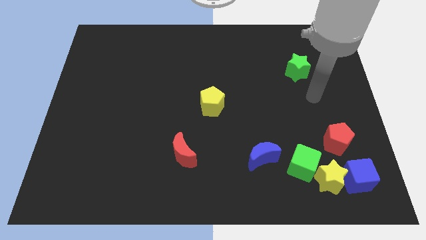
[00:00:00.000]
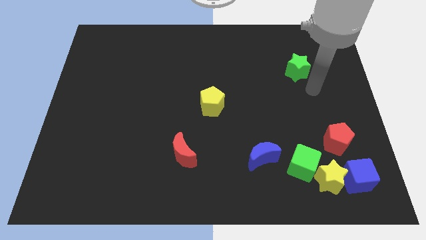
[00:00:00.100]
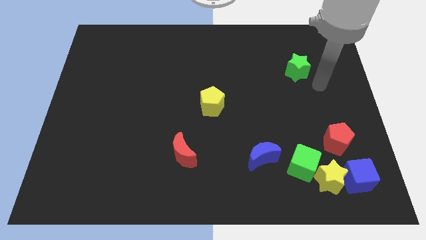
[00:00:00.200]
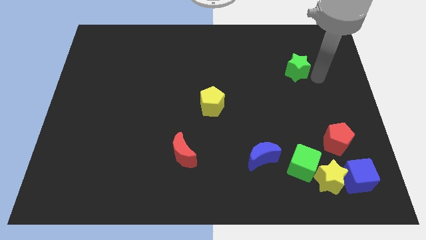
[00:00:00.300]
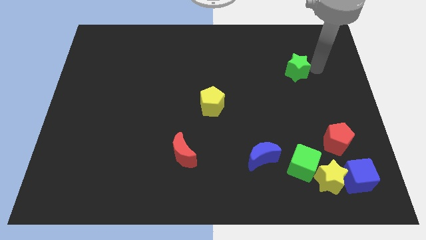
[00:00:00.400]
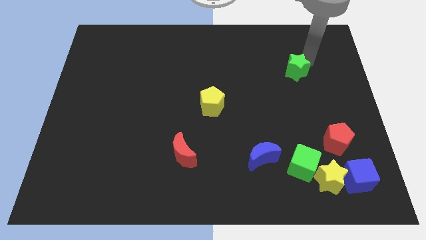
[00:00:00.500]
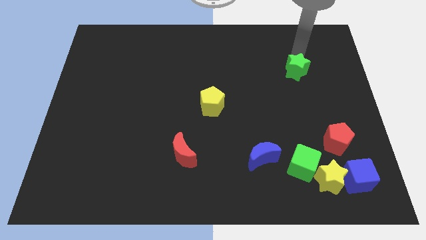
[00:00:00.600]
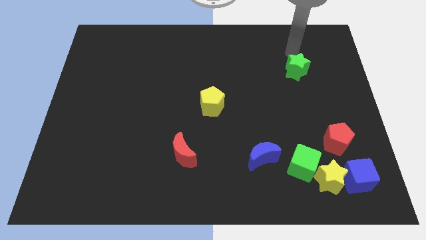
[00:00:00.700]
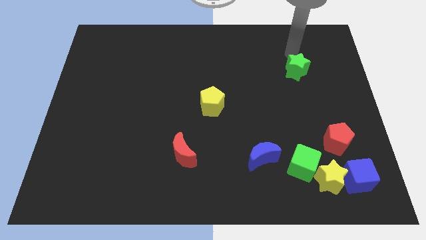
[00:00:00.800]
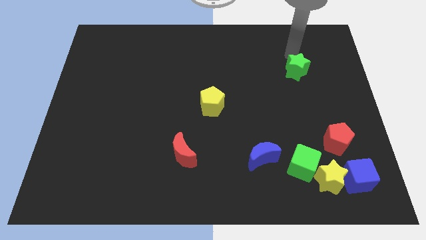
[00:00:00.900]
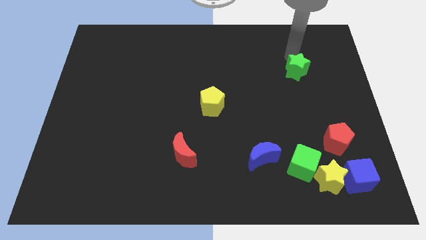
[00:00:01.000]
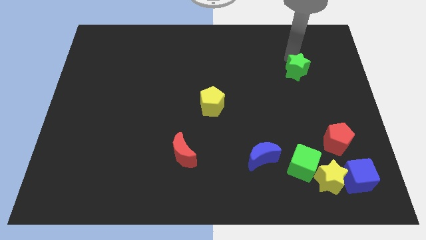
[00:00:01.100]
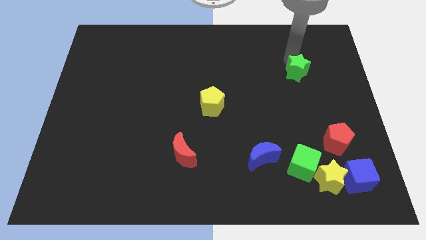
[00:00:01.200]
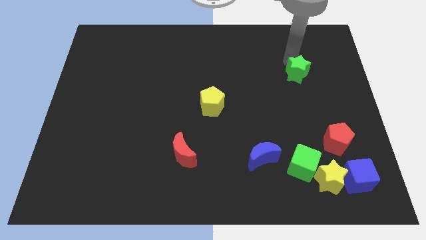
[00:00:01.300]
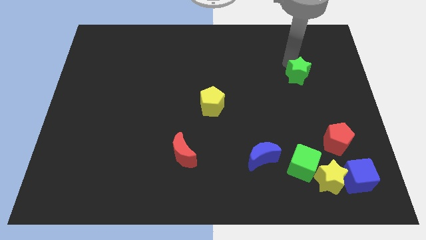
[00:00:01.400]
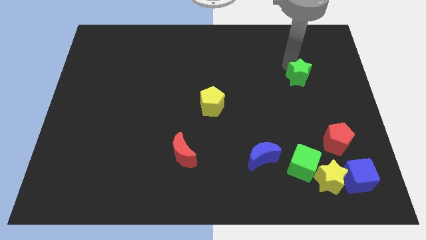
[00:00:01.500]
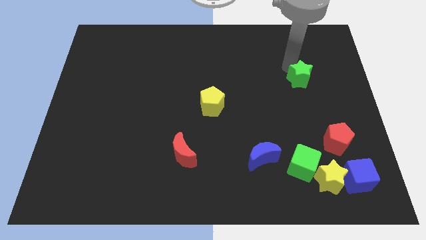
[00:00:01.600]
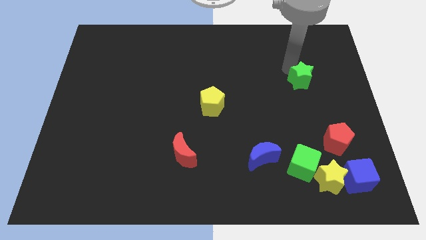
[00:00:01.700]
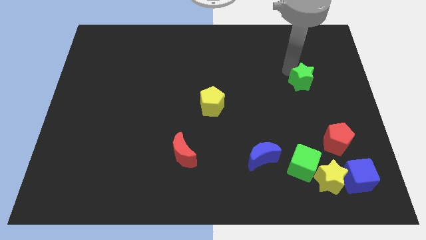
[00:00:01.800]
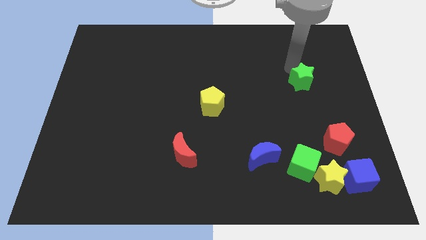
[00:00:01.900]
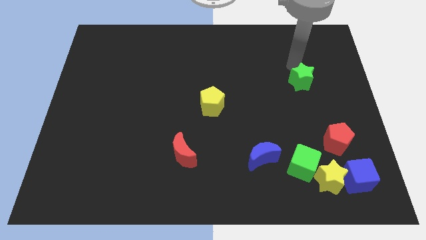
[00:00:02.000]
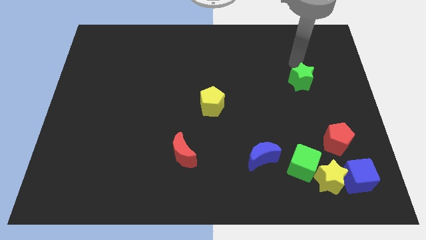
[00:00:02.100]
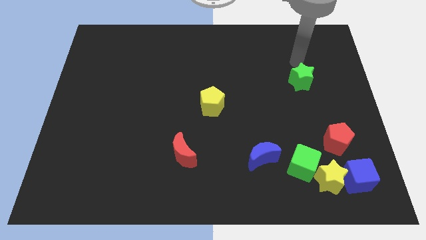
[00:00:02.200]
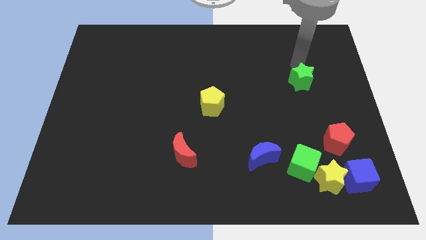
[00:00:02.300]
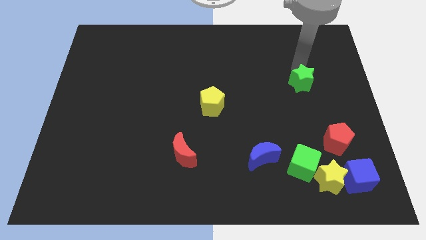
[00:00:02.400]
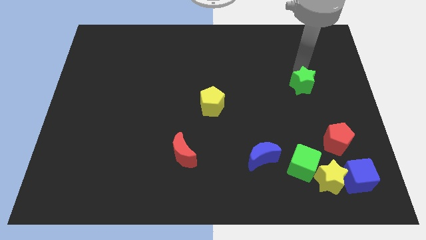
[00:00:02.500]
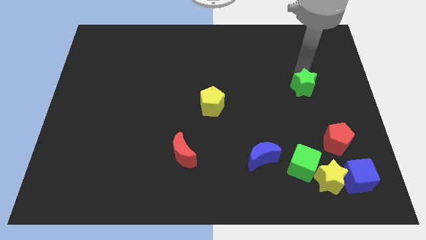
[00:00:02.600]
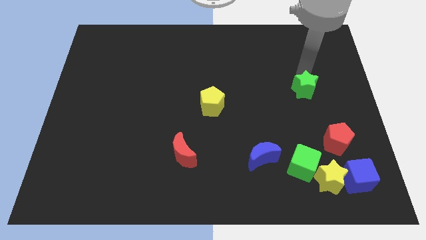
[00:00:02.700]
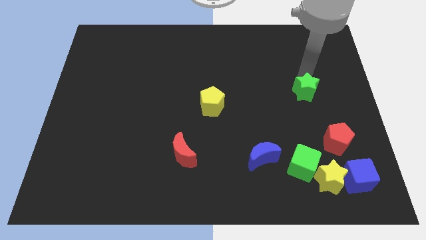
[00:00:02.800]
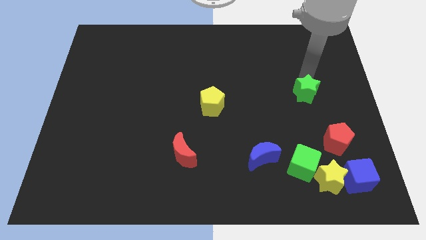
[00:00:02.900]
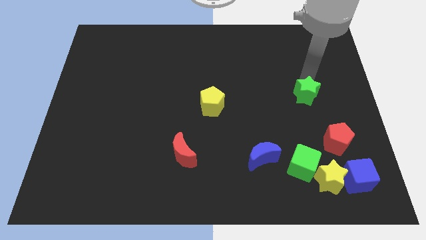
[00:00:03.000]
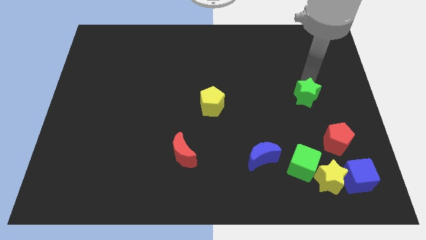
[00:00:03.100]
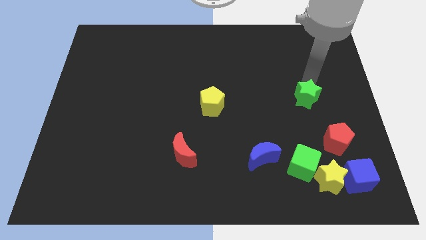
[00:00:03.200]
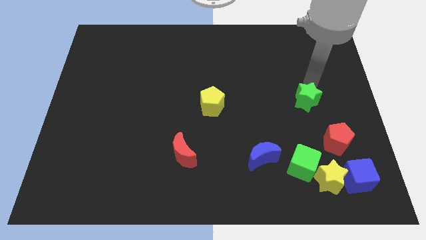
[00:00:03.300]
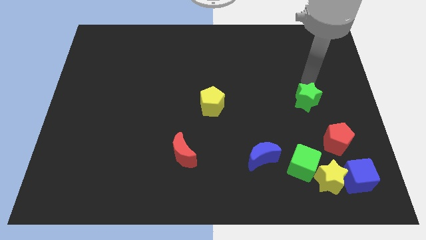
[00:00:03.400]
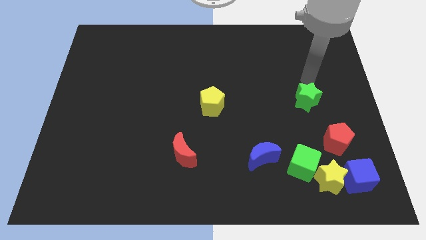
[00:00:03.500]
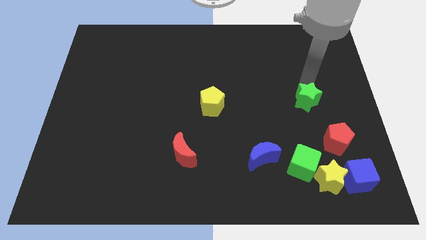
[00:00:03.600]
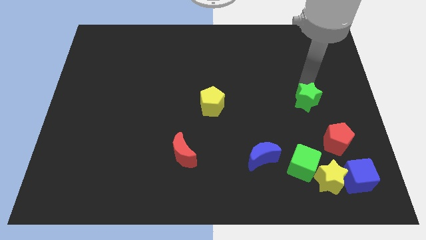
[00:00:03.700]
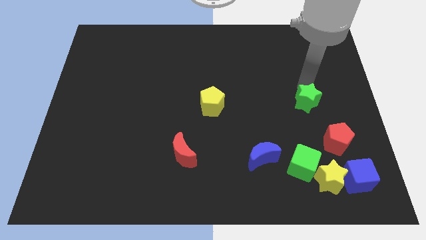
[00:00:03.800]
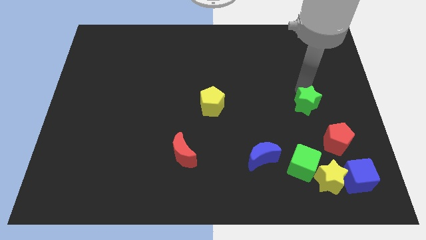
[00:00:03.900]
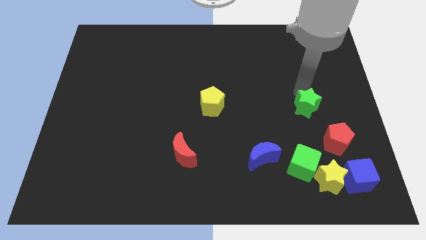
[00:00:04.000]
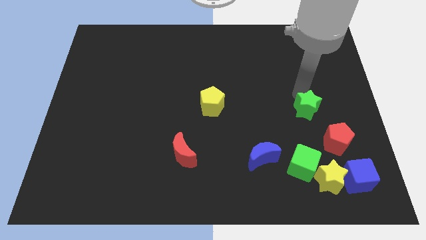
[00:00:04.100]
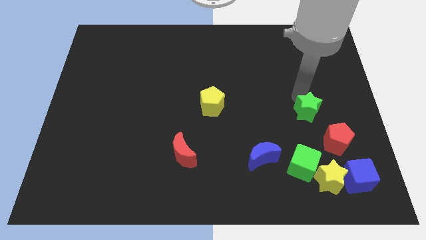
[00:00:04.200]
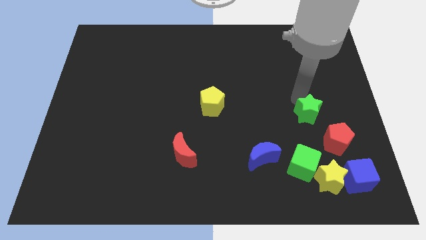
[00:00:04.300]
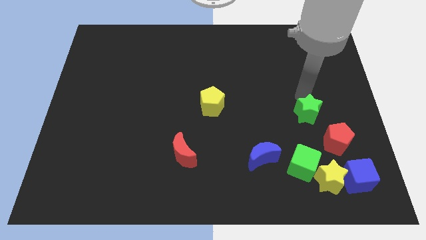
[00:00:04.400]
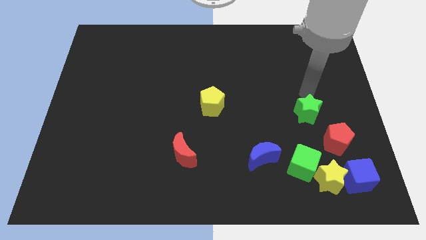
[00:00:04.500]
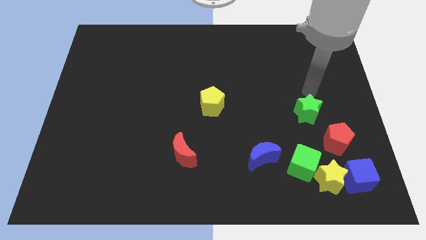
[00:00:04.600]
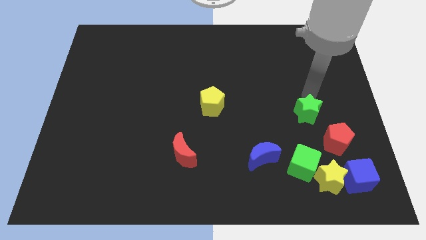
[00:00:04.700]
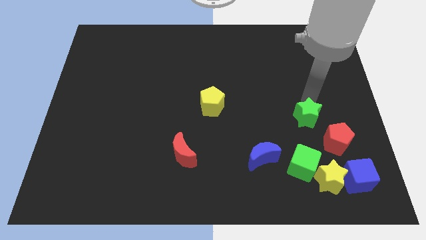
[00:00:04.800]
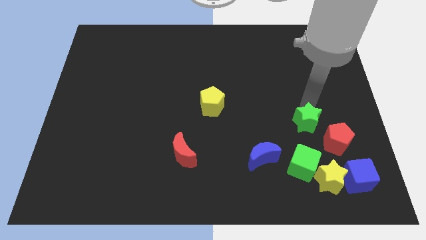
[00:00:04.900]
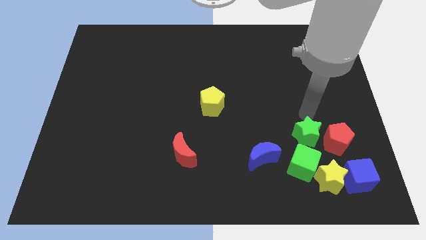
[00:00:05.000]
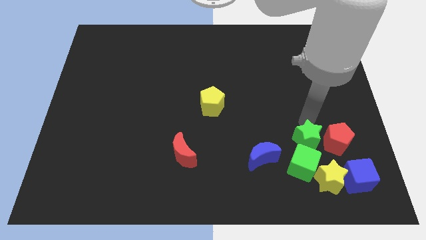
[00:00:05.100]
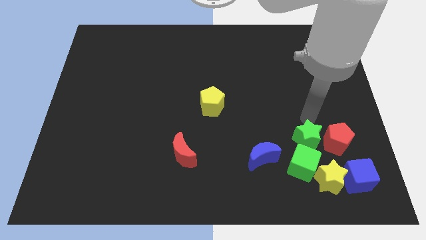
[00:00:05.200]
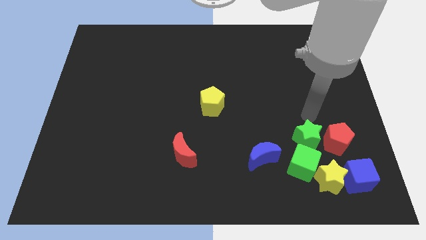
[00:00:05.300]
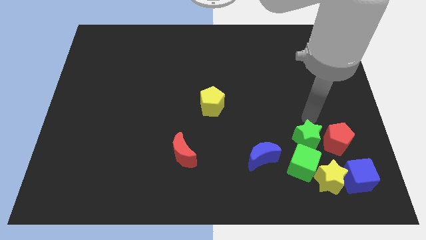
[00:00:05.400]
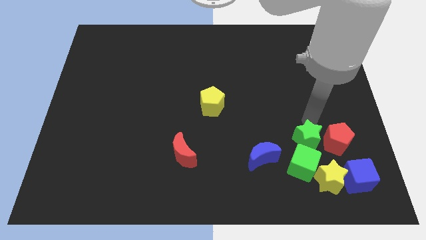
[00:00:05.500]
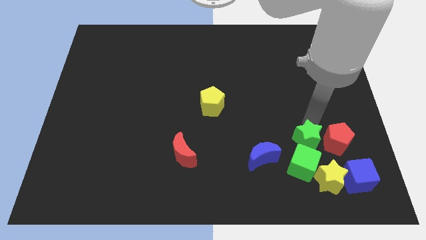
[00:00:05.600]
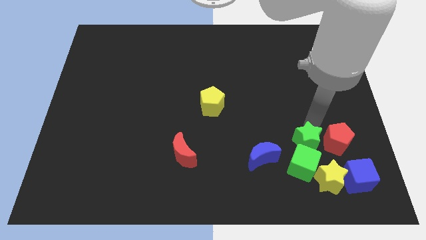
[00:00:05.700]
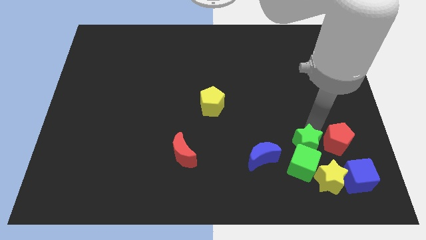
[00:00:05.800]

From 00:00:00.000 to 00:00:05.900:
slide the green star towards the green cube

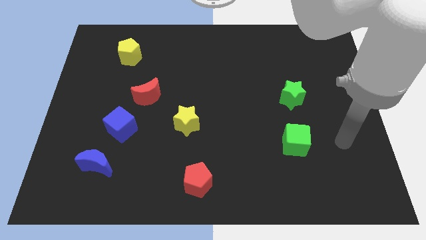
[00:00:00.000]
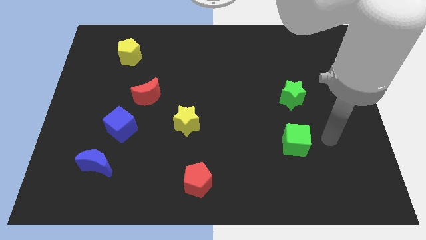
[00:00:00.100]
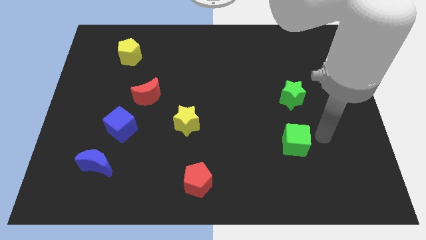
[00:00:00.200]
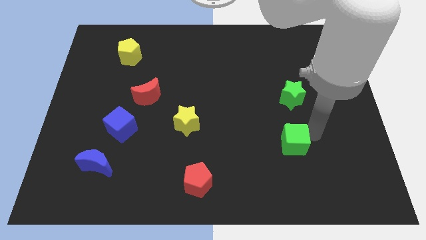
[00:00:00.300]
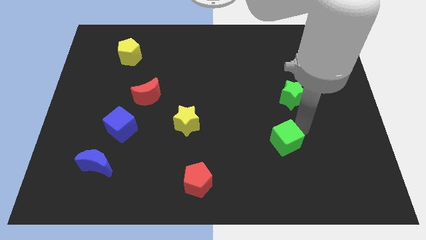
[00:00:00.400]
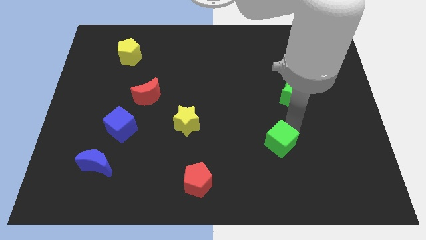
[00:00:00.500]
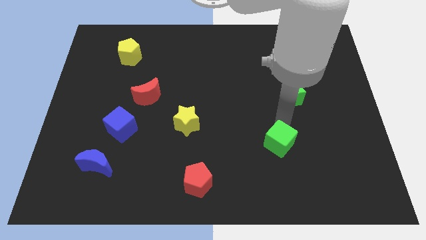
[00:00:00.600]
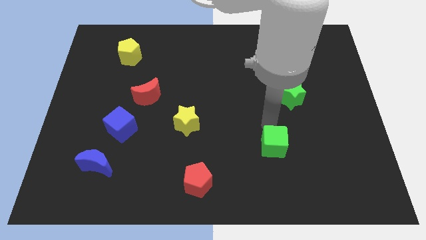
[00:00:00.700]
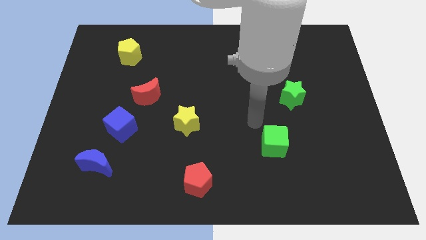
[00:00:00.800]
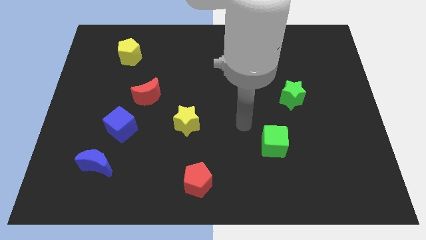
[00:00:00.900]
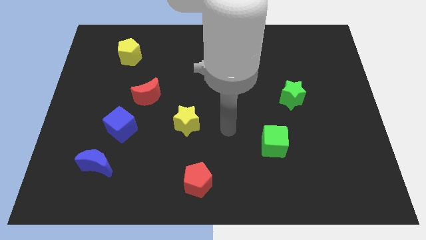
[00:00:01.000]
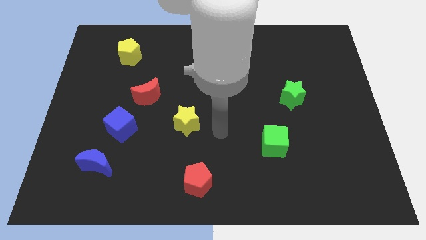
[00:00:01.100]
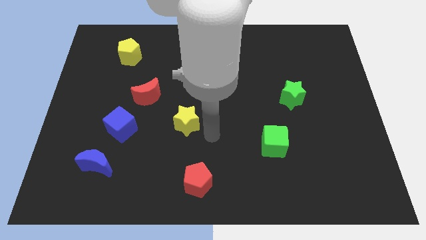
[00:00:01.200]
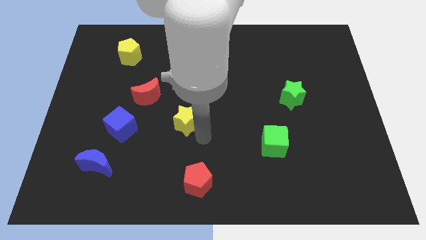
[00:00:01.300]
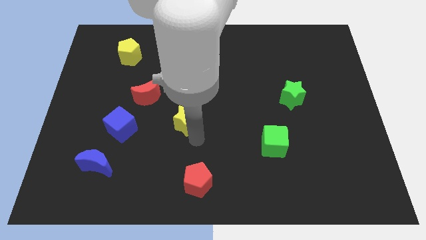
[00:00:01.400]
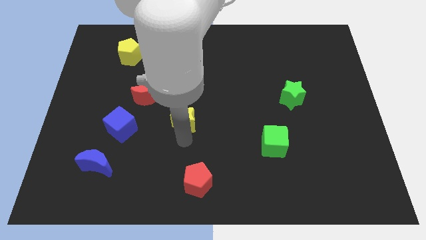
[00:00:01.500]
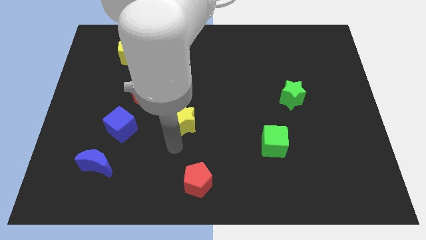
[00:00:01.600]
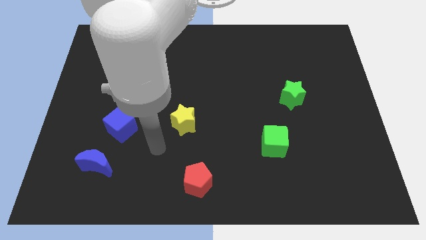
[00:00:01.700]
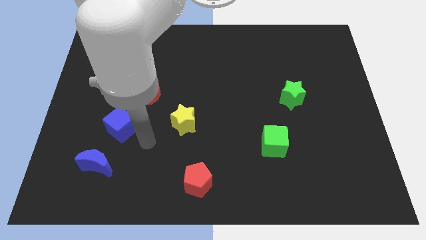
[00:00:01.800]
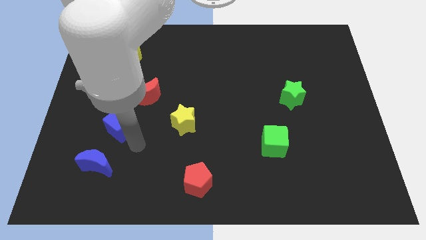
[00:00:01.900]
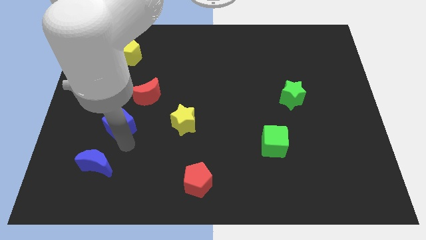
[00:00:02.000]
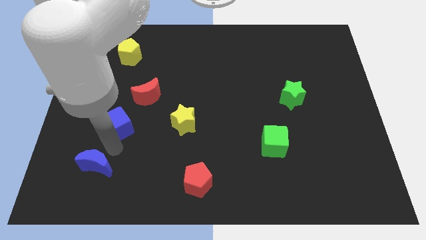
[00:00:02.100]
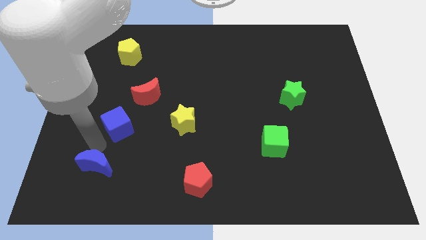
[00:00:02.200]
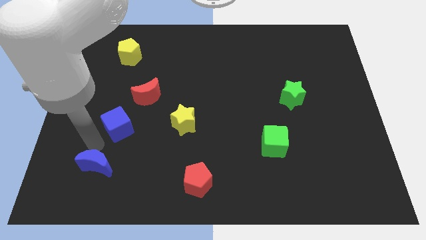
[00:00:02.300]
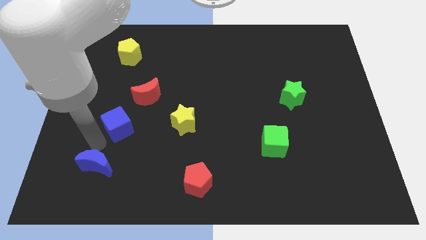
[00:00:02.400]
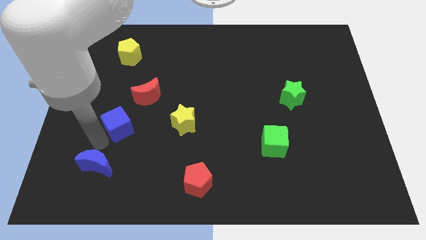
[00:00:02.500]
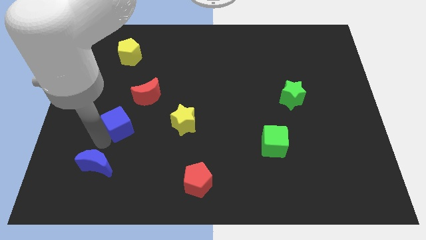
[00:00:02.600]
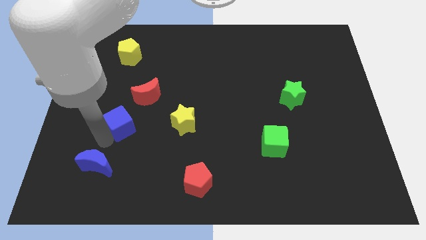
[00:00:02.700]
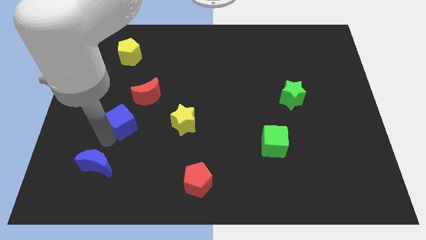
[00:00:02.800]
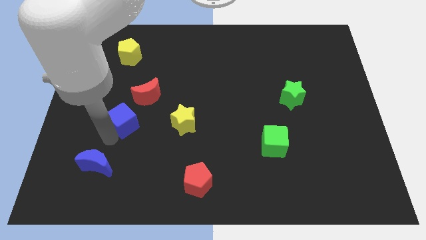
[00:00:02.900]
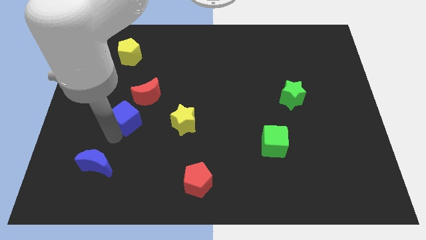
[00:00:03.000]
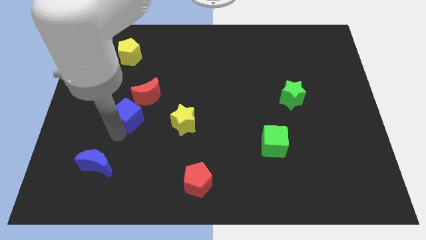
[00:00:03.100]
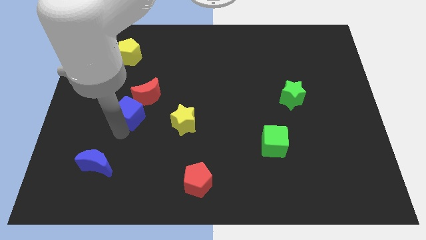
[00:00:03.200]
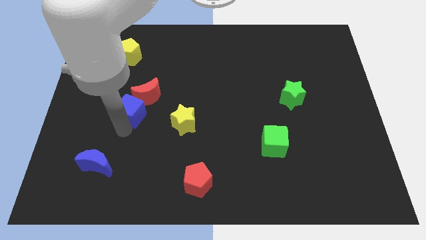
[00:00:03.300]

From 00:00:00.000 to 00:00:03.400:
push the blue cube close to the red moon
